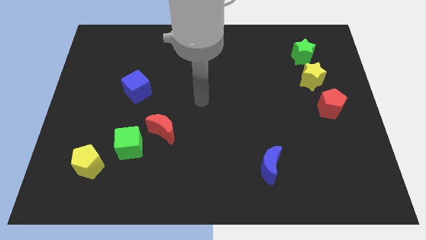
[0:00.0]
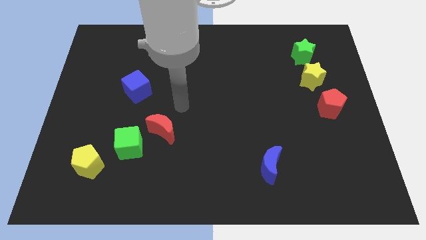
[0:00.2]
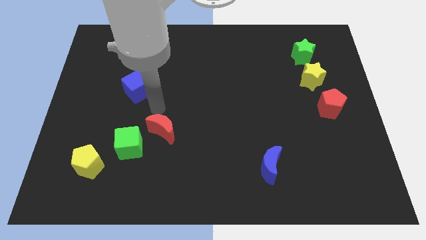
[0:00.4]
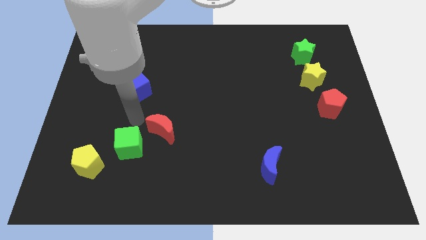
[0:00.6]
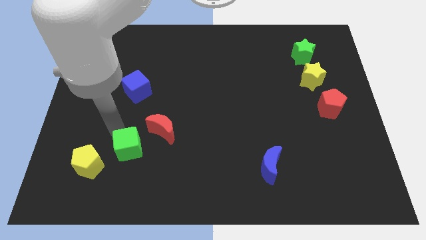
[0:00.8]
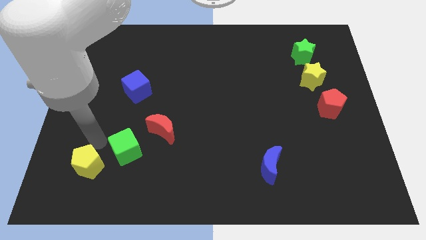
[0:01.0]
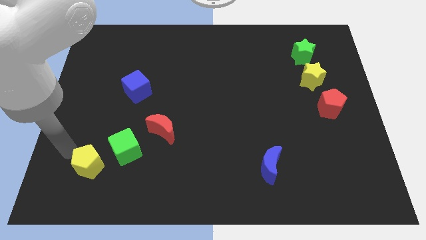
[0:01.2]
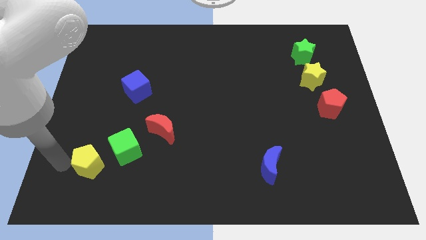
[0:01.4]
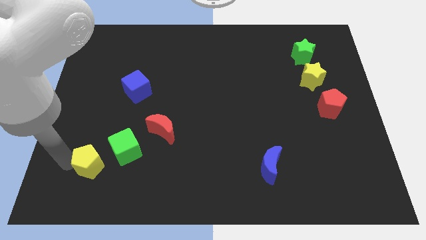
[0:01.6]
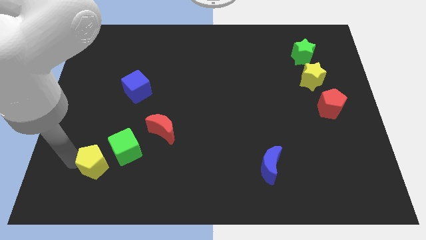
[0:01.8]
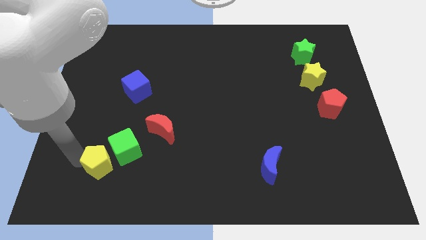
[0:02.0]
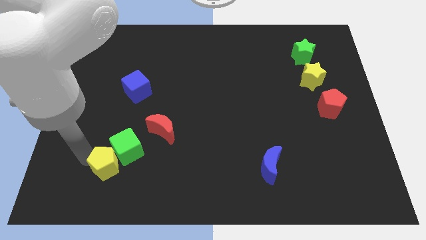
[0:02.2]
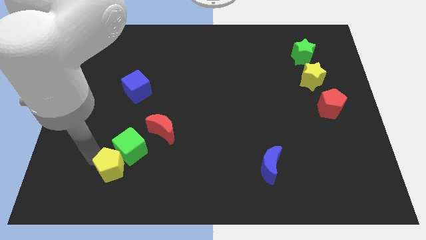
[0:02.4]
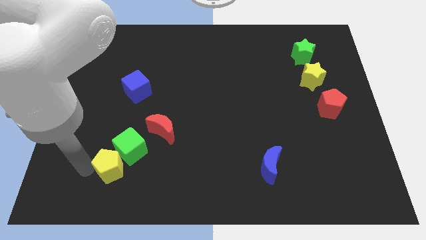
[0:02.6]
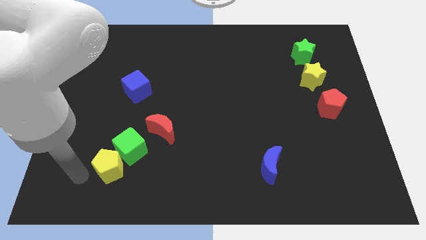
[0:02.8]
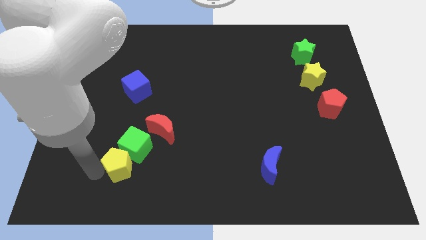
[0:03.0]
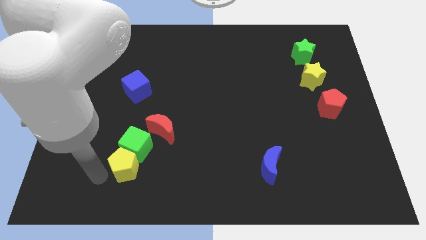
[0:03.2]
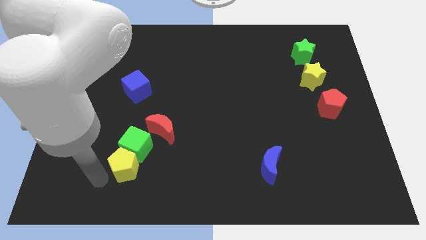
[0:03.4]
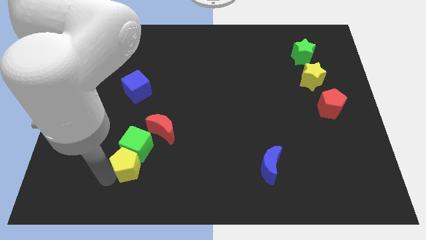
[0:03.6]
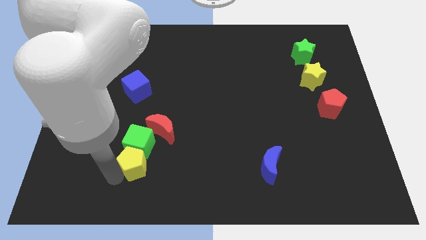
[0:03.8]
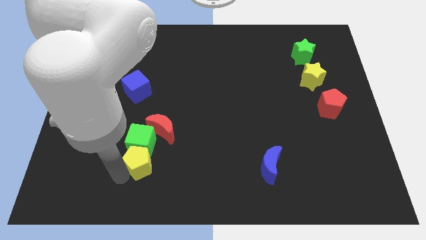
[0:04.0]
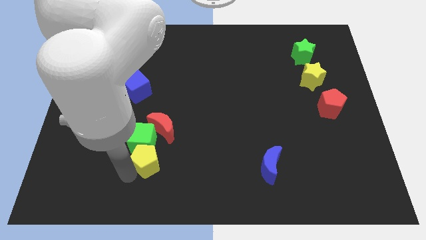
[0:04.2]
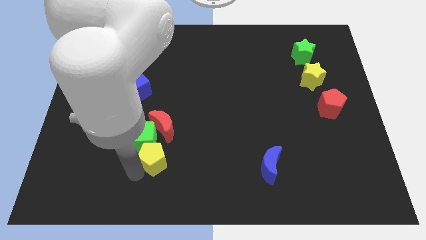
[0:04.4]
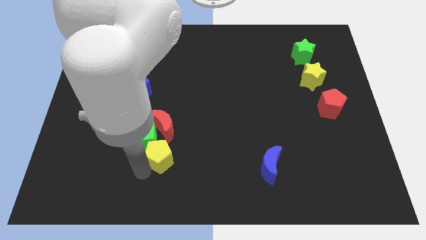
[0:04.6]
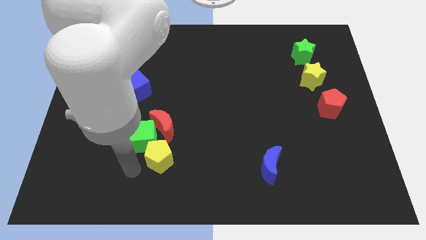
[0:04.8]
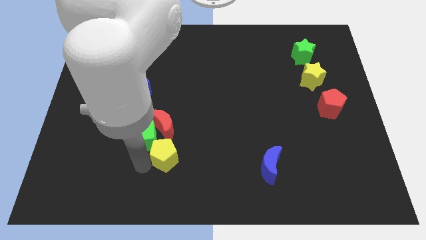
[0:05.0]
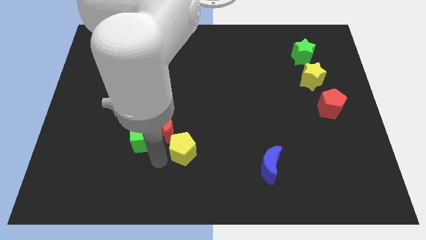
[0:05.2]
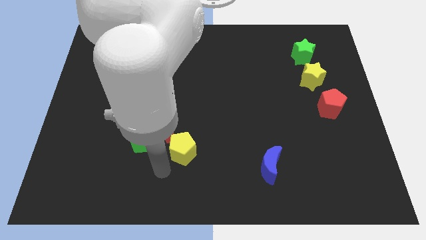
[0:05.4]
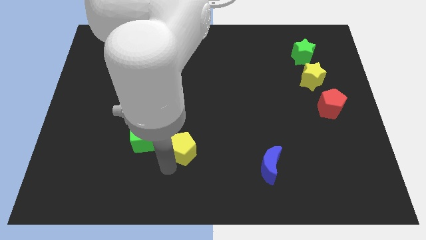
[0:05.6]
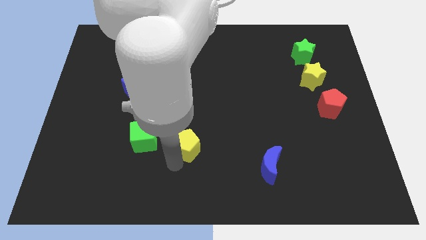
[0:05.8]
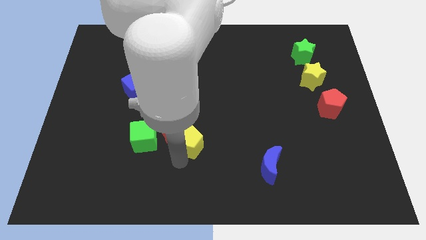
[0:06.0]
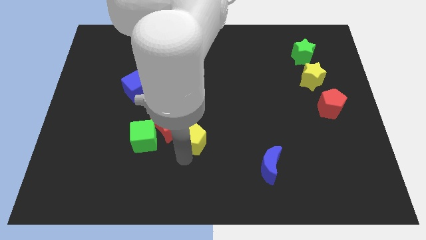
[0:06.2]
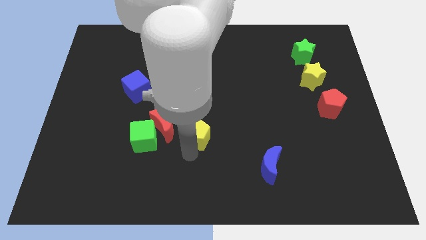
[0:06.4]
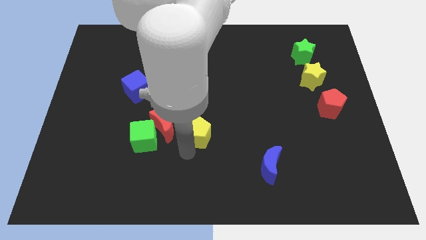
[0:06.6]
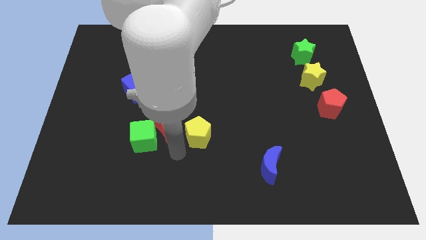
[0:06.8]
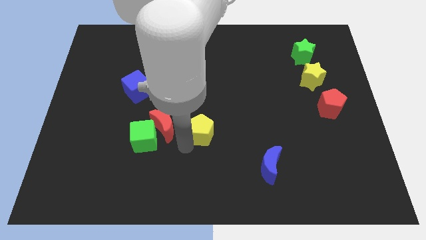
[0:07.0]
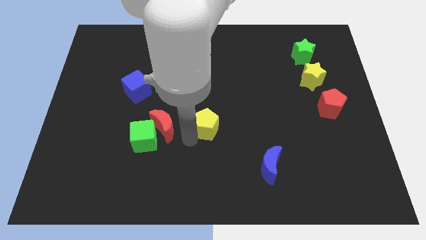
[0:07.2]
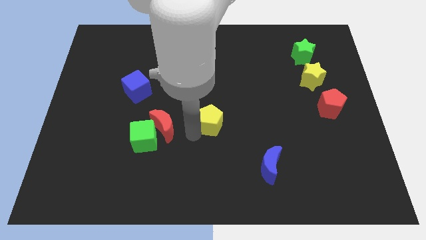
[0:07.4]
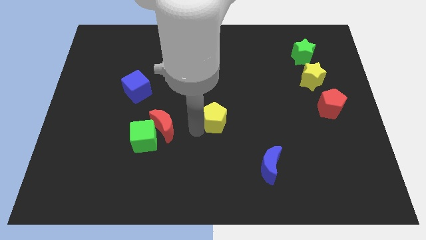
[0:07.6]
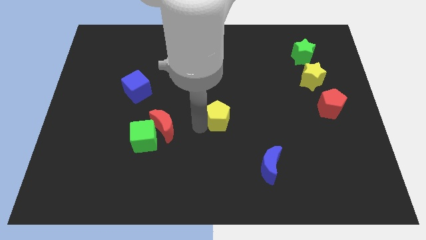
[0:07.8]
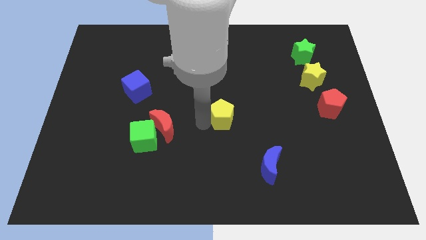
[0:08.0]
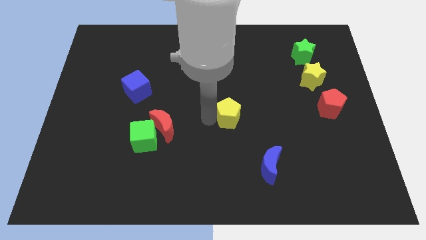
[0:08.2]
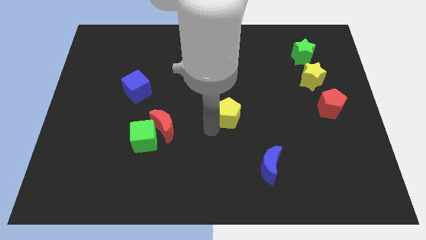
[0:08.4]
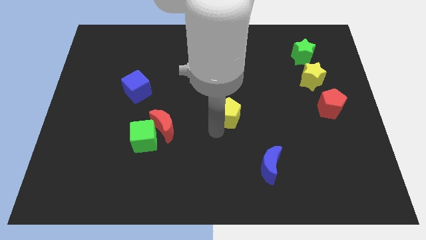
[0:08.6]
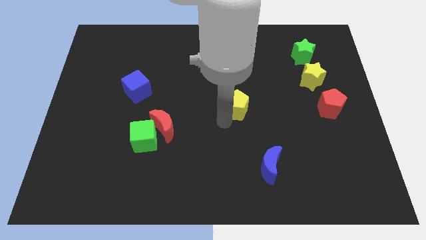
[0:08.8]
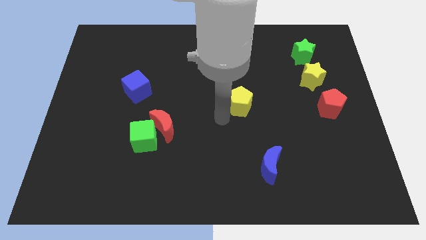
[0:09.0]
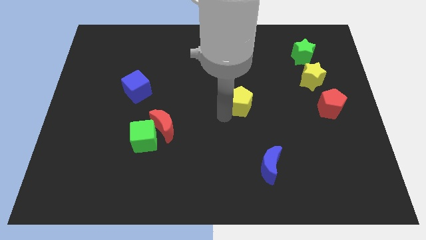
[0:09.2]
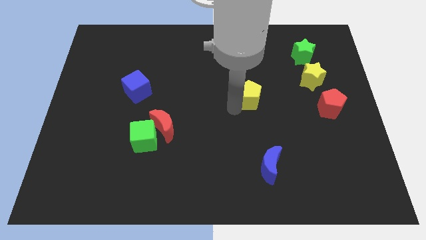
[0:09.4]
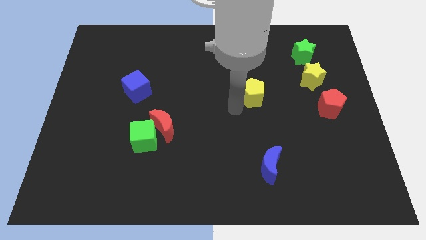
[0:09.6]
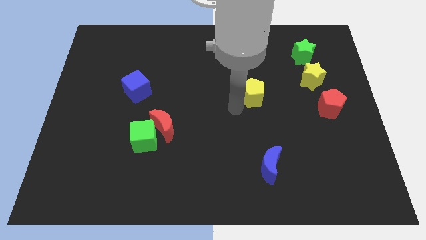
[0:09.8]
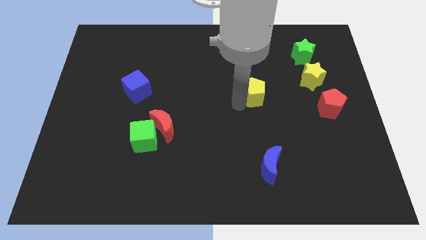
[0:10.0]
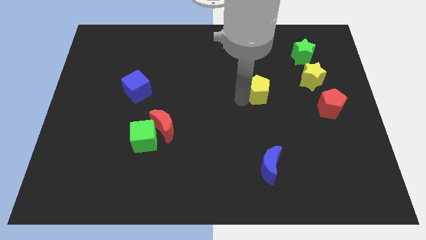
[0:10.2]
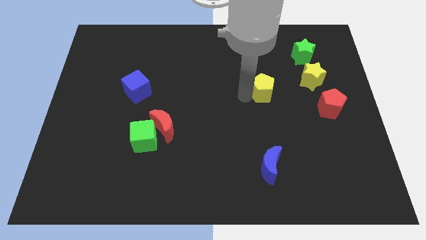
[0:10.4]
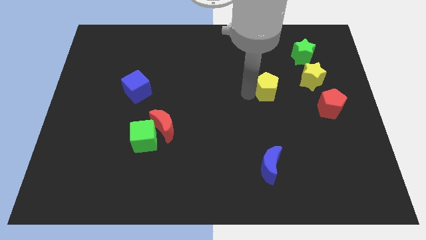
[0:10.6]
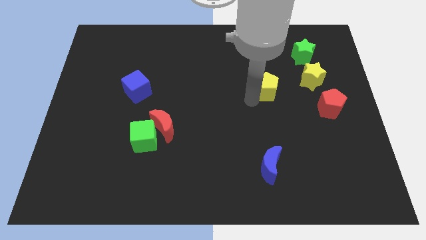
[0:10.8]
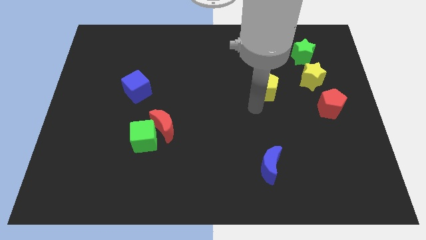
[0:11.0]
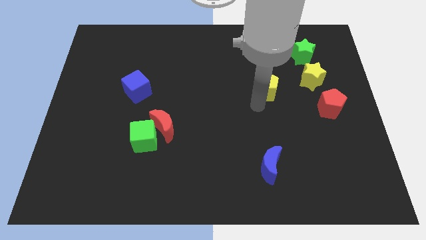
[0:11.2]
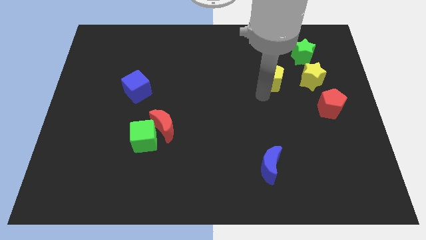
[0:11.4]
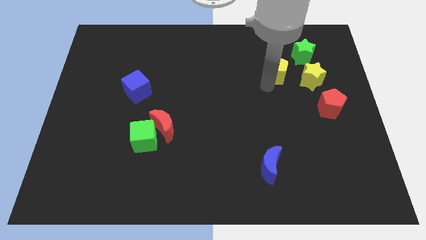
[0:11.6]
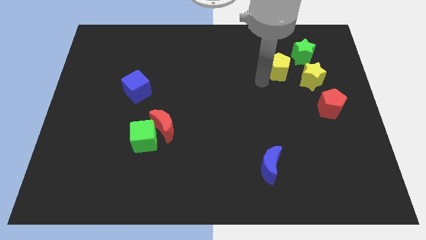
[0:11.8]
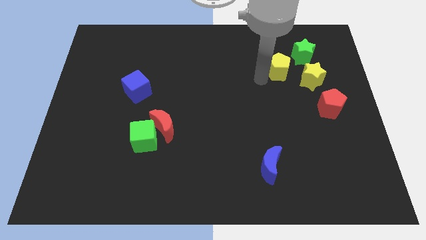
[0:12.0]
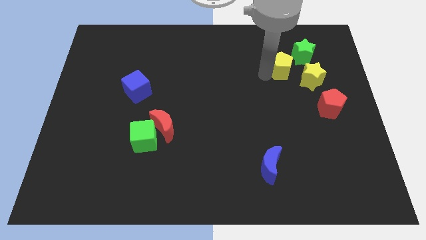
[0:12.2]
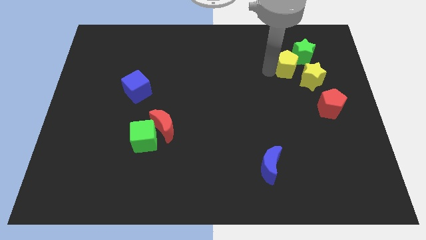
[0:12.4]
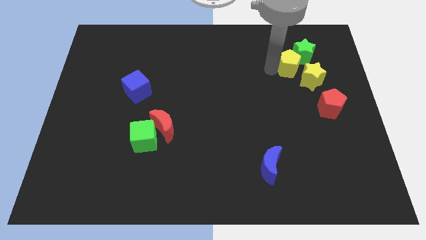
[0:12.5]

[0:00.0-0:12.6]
put the yellow pentagon to the green star

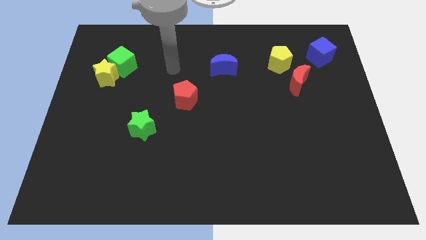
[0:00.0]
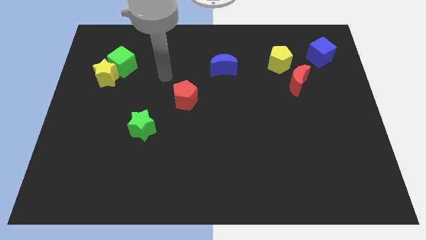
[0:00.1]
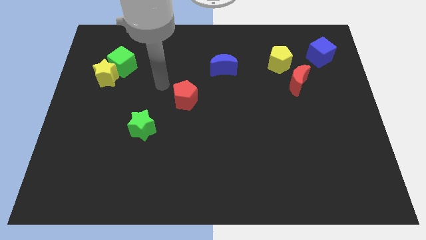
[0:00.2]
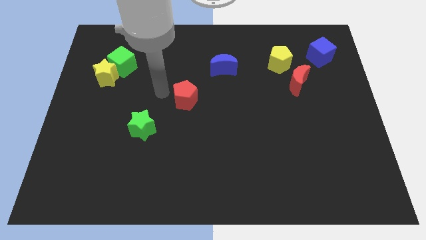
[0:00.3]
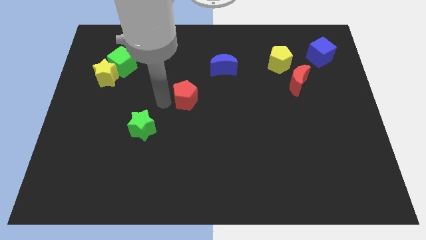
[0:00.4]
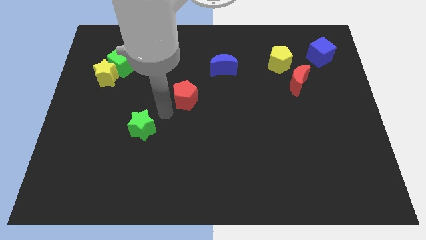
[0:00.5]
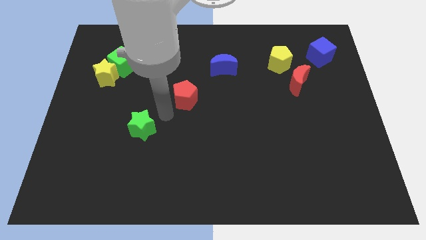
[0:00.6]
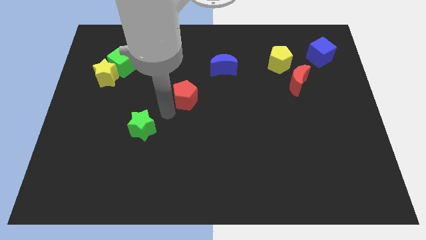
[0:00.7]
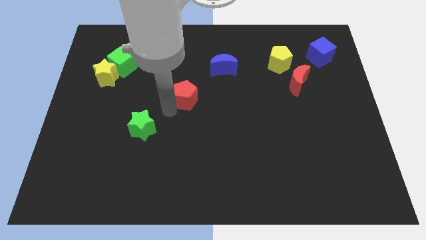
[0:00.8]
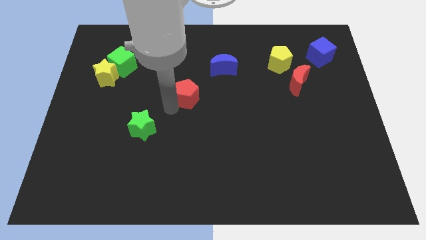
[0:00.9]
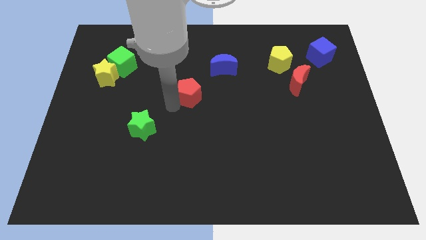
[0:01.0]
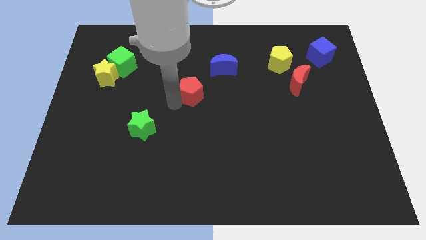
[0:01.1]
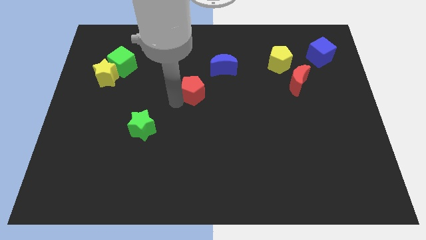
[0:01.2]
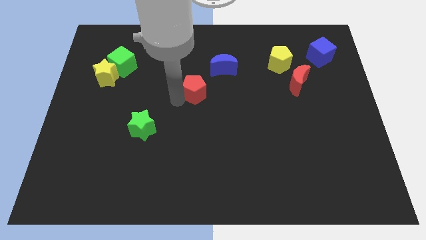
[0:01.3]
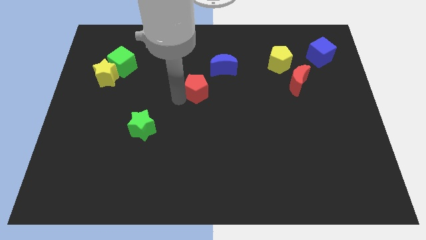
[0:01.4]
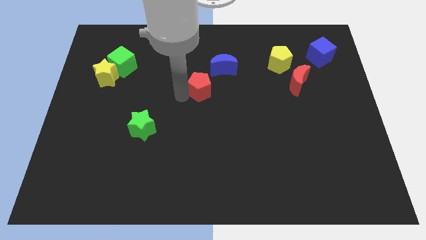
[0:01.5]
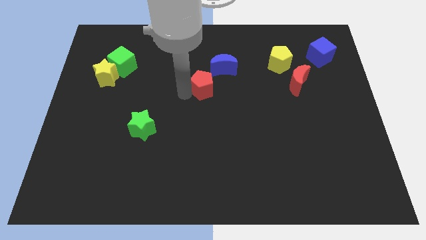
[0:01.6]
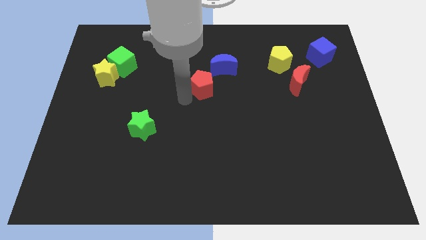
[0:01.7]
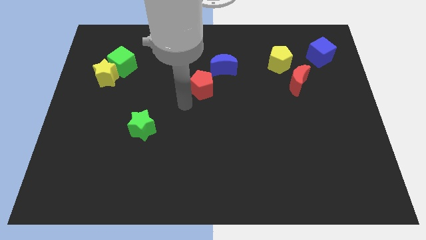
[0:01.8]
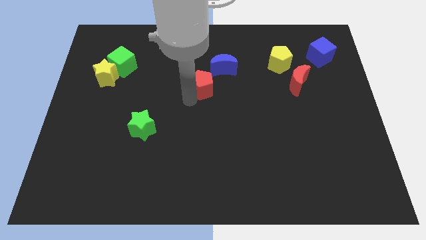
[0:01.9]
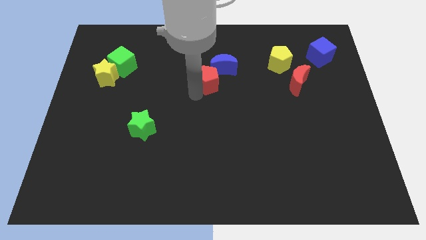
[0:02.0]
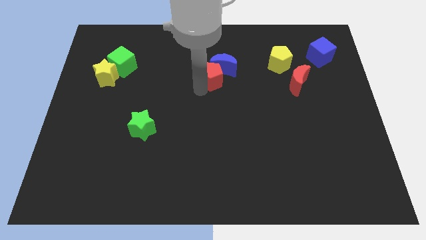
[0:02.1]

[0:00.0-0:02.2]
put the red pentagon close to the blue moon
